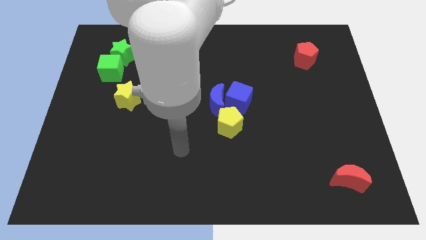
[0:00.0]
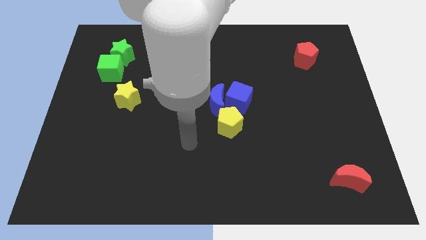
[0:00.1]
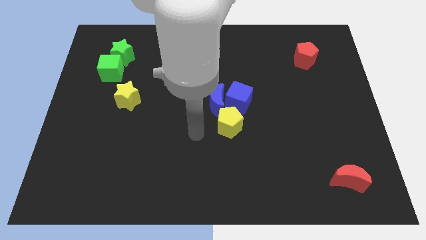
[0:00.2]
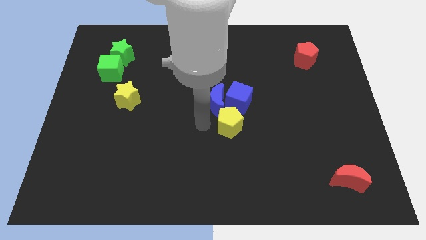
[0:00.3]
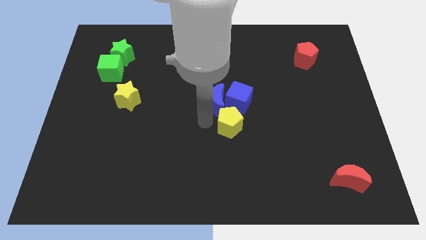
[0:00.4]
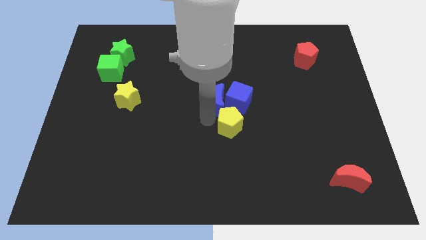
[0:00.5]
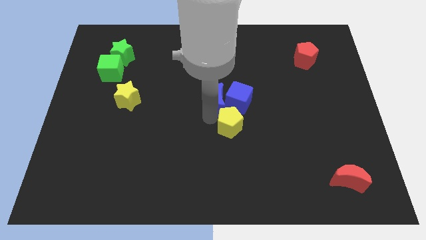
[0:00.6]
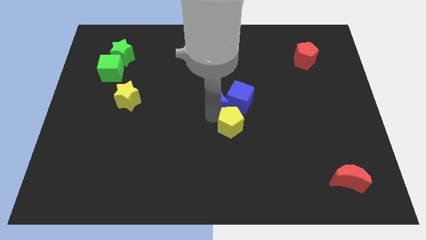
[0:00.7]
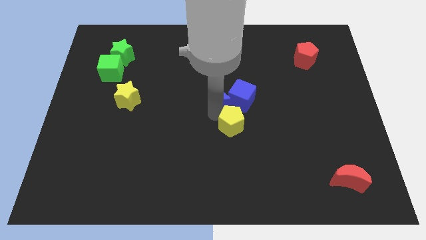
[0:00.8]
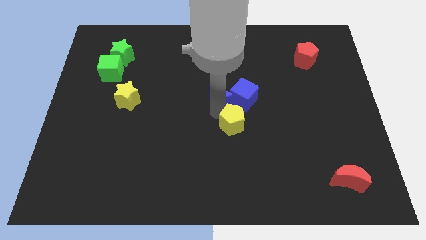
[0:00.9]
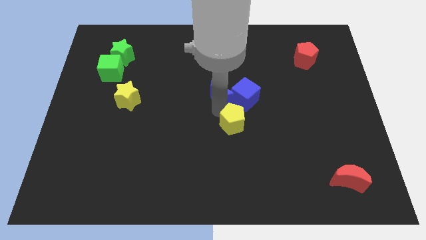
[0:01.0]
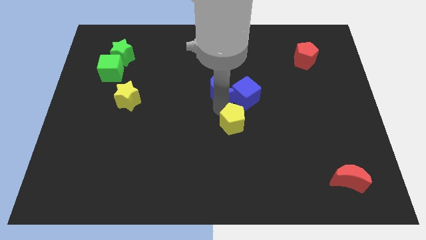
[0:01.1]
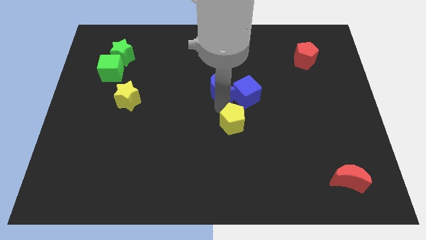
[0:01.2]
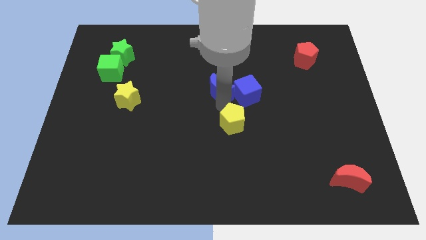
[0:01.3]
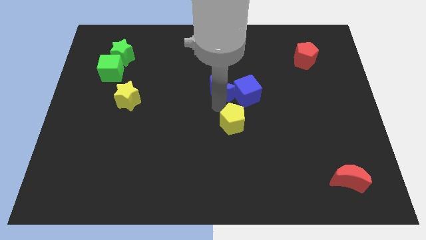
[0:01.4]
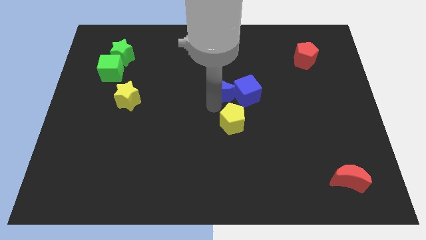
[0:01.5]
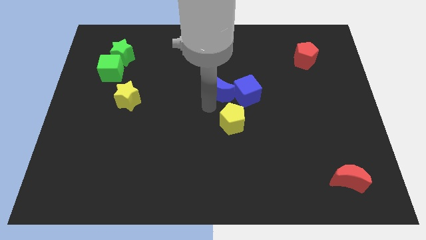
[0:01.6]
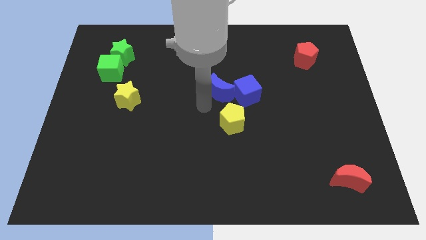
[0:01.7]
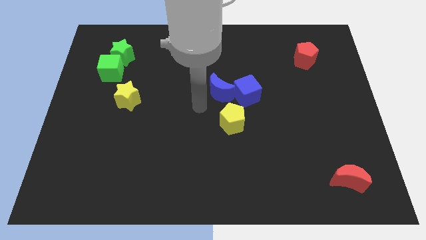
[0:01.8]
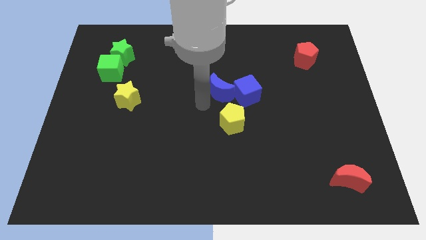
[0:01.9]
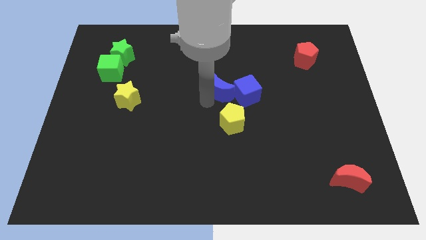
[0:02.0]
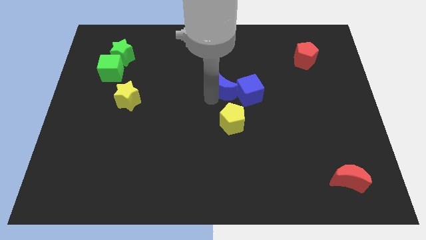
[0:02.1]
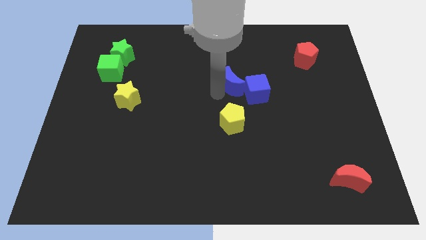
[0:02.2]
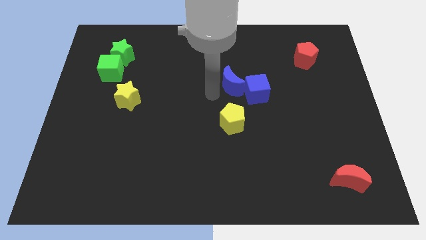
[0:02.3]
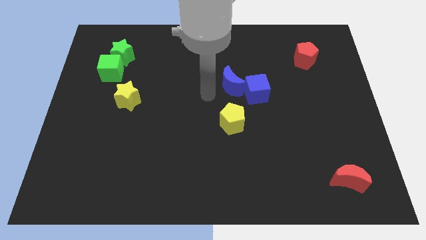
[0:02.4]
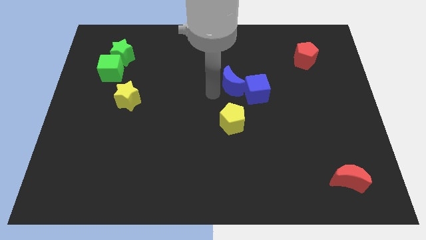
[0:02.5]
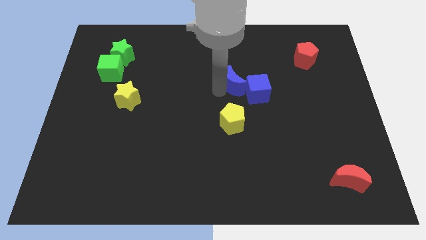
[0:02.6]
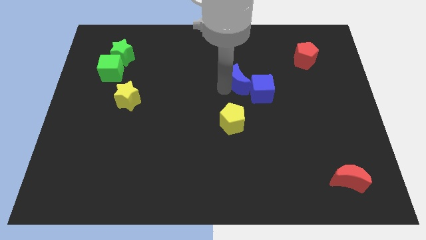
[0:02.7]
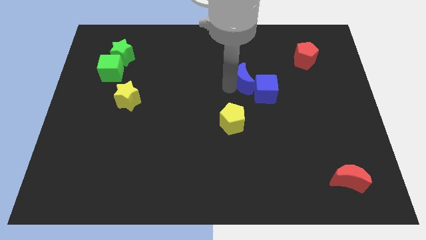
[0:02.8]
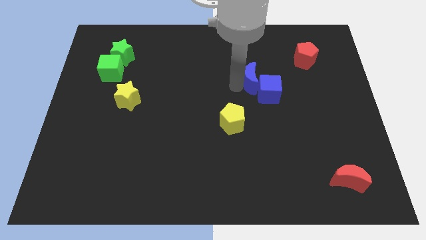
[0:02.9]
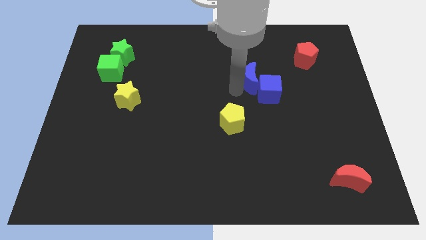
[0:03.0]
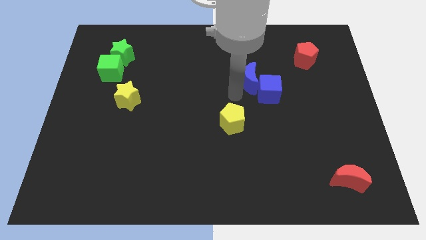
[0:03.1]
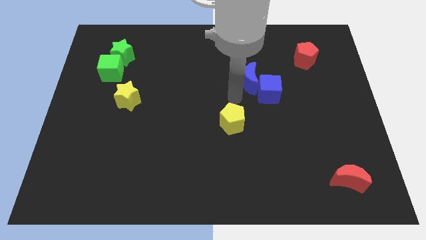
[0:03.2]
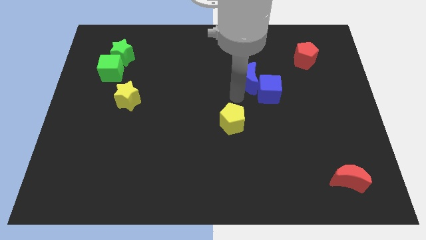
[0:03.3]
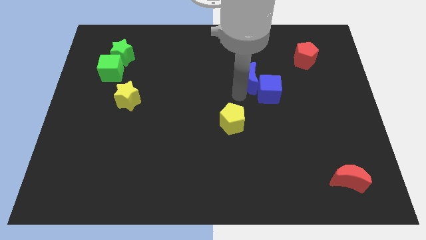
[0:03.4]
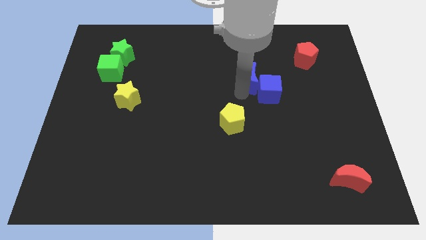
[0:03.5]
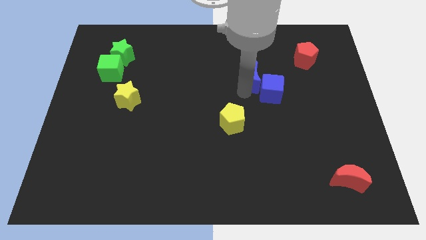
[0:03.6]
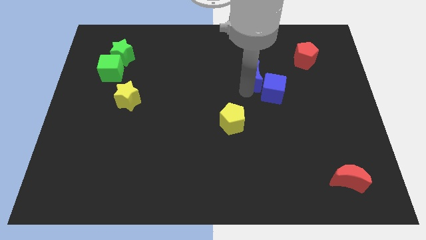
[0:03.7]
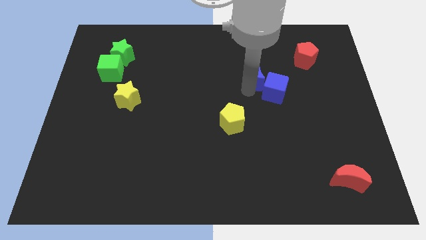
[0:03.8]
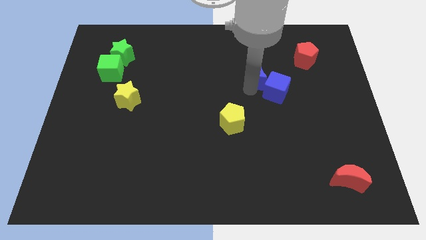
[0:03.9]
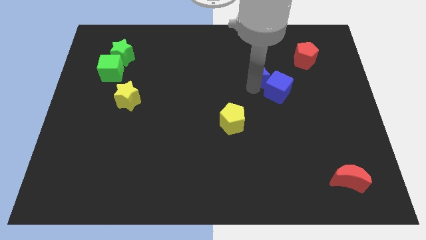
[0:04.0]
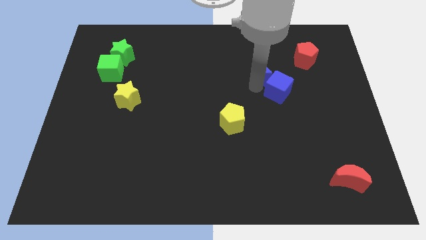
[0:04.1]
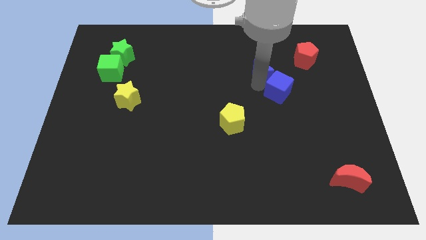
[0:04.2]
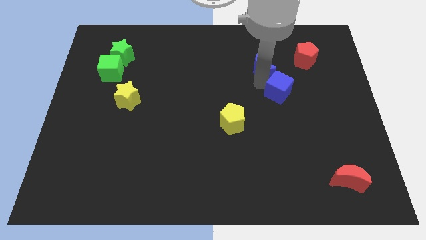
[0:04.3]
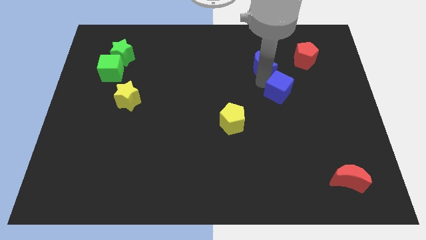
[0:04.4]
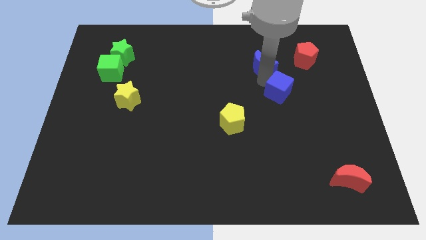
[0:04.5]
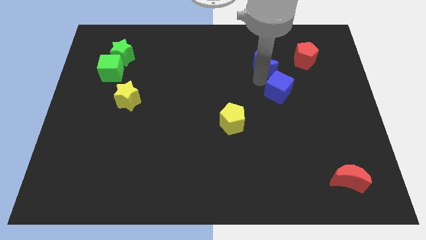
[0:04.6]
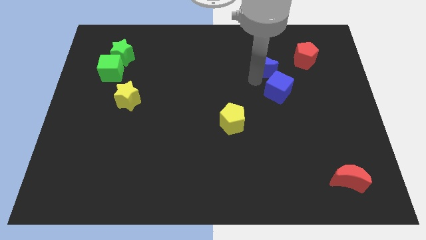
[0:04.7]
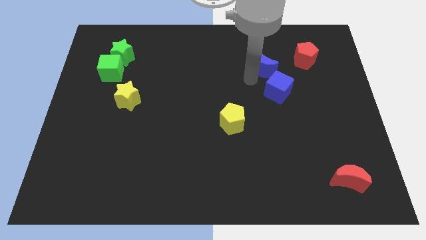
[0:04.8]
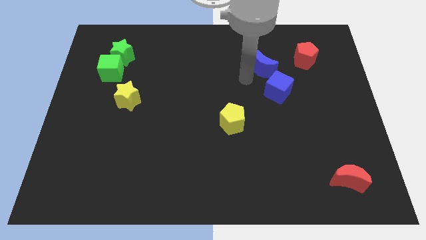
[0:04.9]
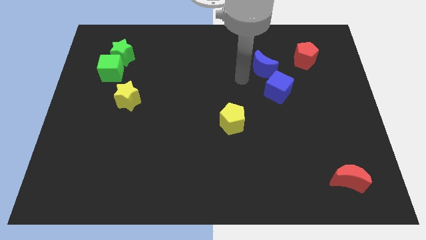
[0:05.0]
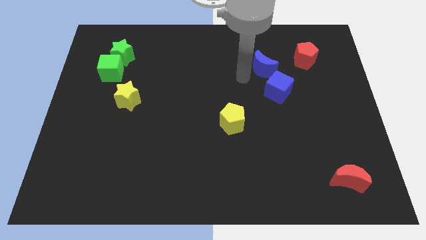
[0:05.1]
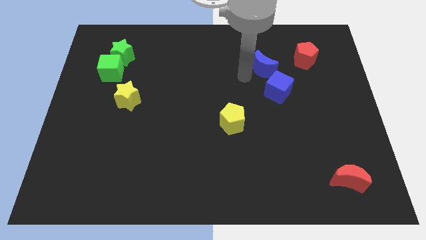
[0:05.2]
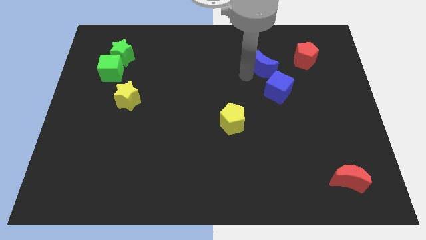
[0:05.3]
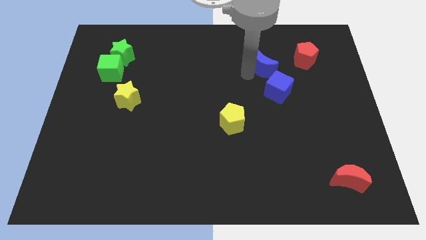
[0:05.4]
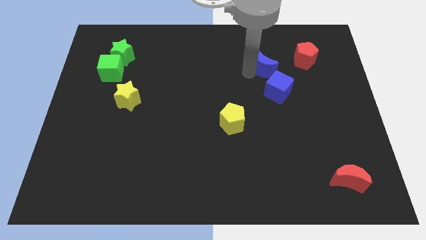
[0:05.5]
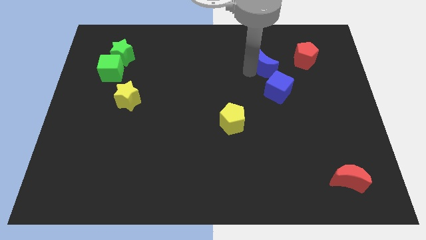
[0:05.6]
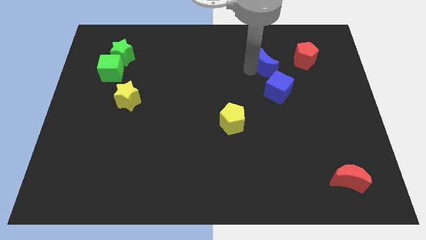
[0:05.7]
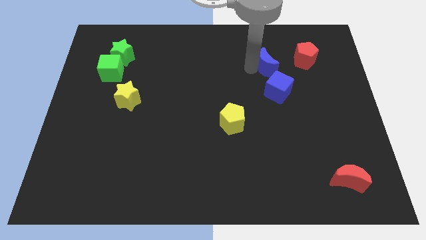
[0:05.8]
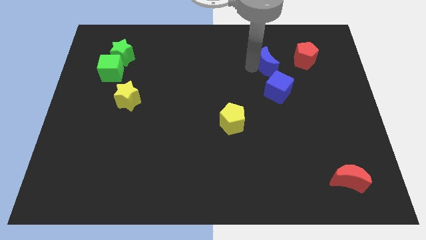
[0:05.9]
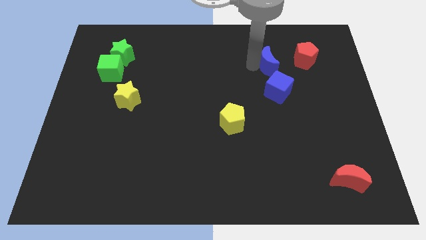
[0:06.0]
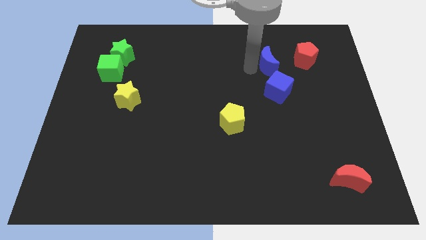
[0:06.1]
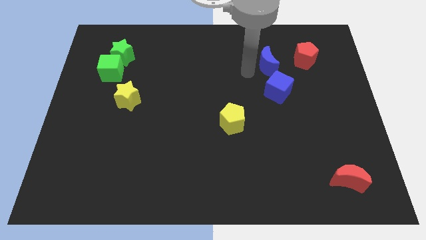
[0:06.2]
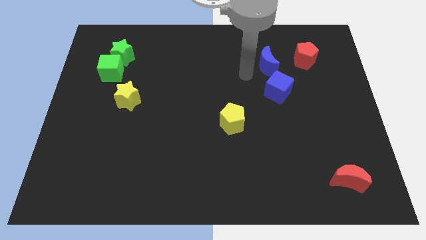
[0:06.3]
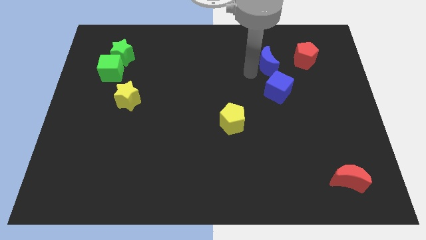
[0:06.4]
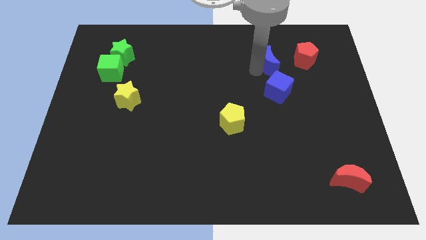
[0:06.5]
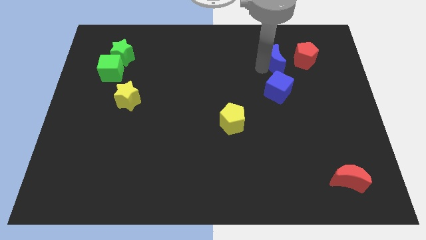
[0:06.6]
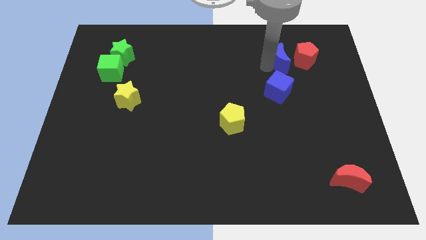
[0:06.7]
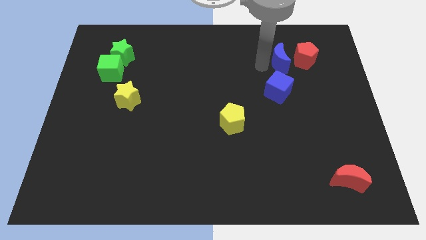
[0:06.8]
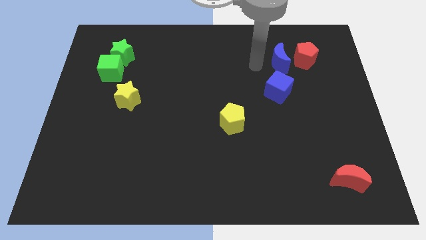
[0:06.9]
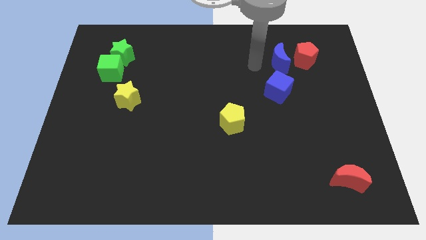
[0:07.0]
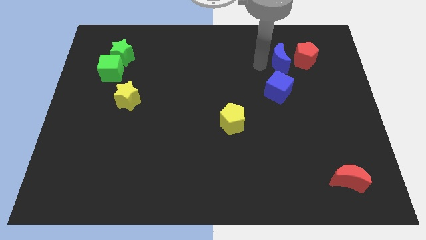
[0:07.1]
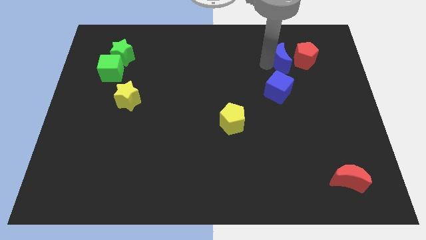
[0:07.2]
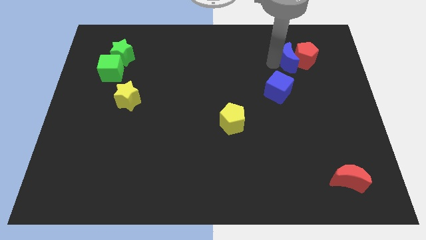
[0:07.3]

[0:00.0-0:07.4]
move the blue moon to the red pentagon

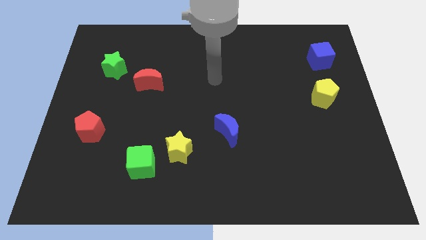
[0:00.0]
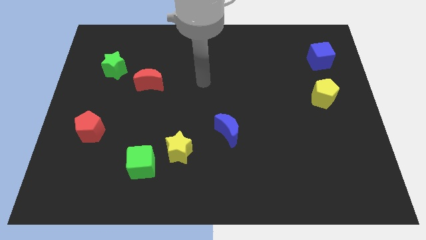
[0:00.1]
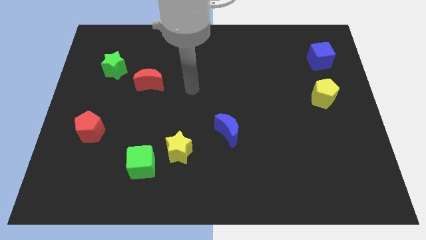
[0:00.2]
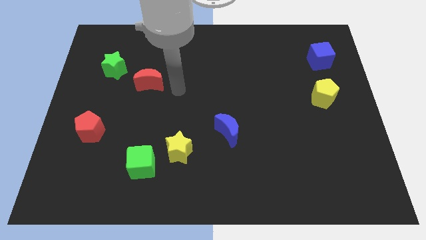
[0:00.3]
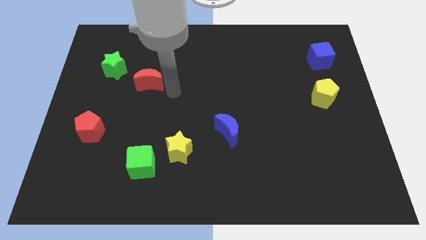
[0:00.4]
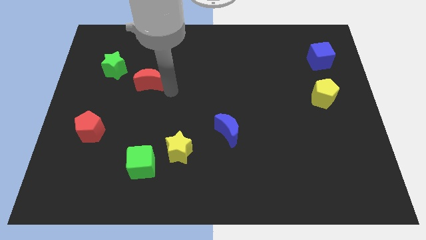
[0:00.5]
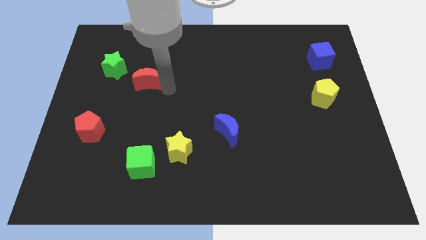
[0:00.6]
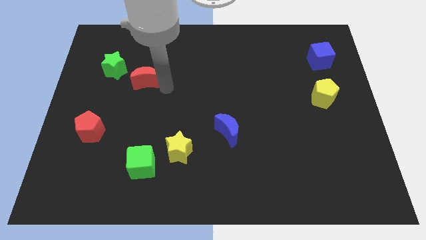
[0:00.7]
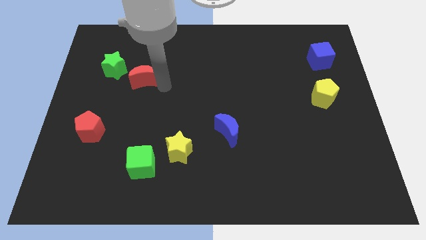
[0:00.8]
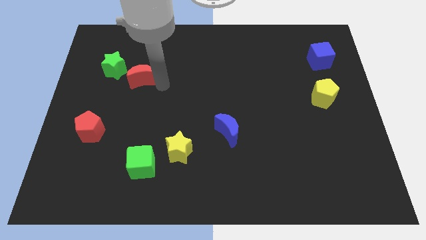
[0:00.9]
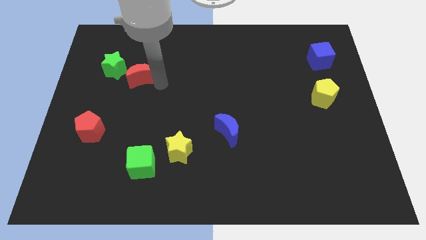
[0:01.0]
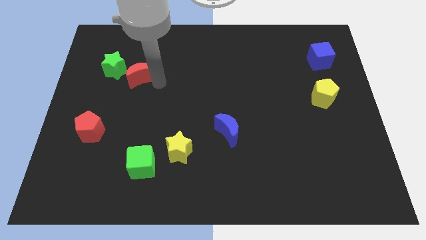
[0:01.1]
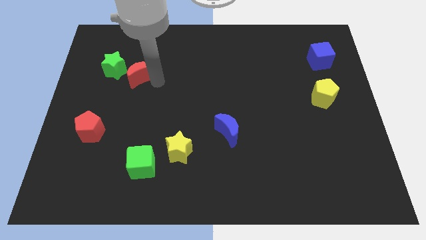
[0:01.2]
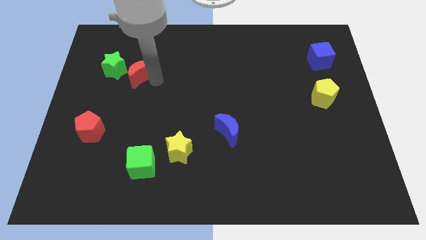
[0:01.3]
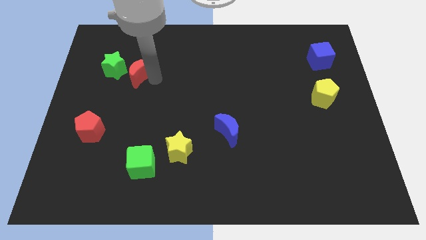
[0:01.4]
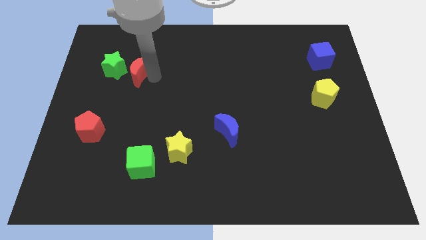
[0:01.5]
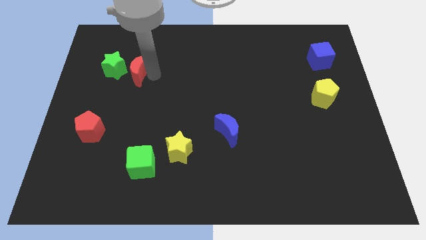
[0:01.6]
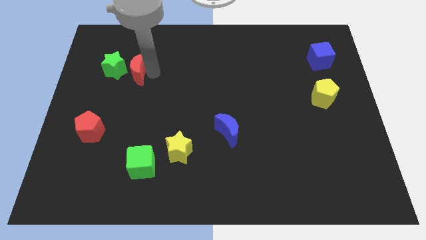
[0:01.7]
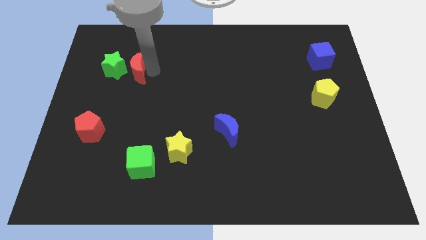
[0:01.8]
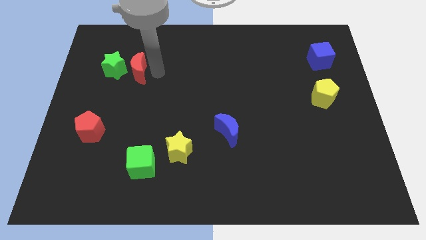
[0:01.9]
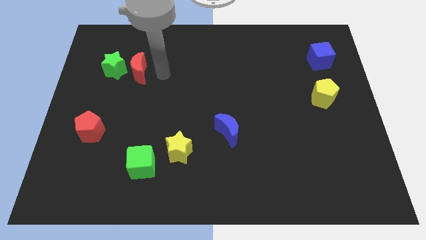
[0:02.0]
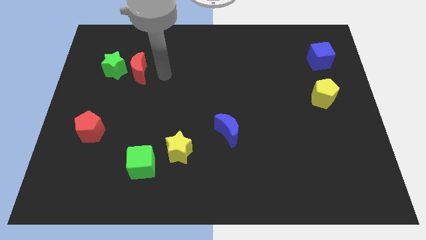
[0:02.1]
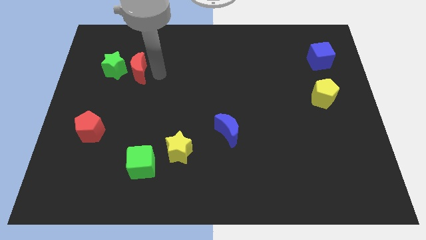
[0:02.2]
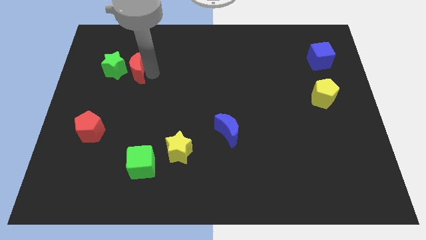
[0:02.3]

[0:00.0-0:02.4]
put the red moon next to the green star
